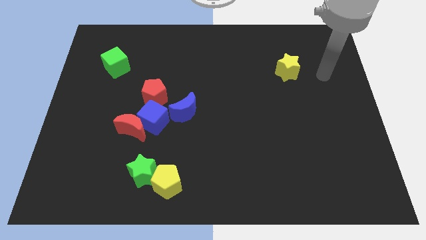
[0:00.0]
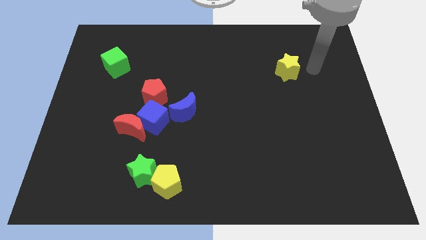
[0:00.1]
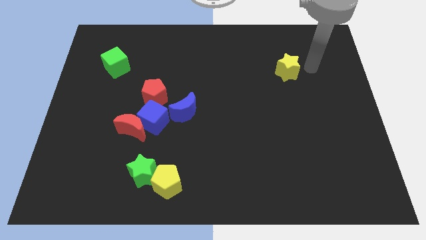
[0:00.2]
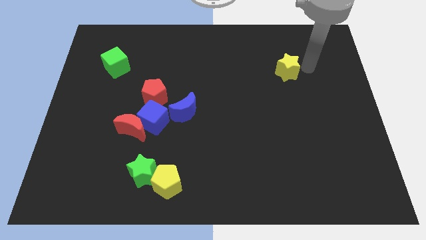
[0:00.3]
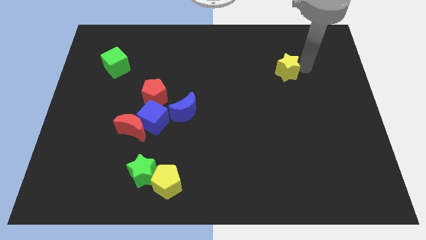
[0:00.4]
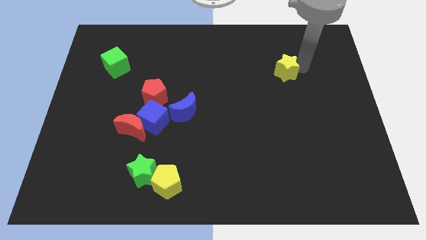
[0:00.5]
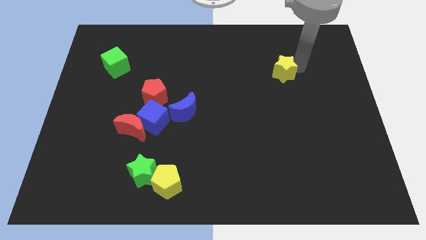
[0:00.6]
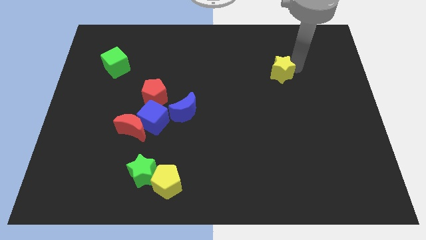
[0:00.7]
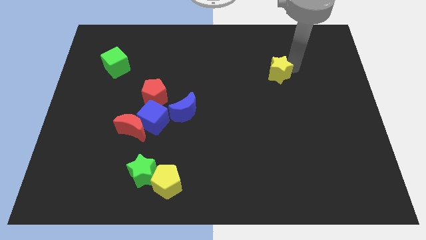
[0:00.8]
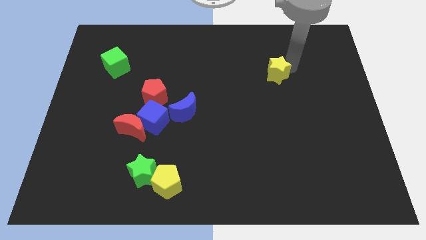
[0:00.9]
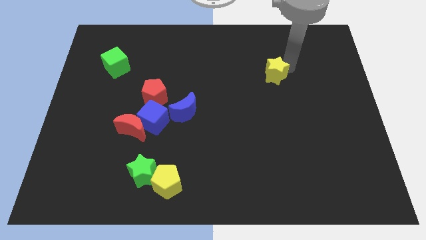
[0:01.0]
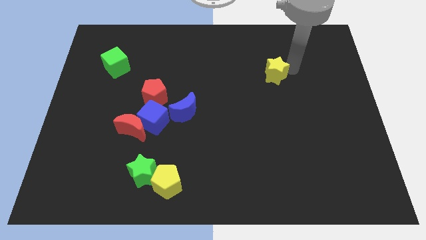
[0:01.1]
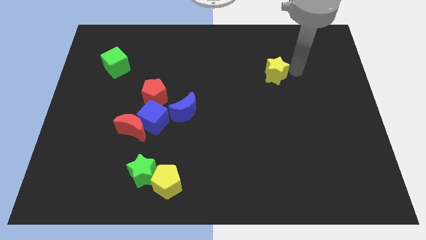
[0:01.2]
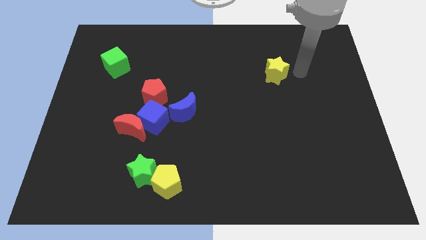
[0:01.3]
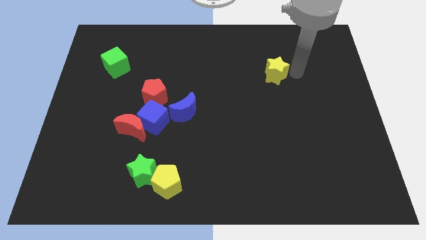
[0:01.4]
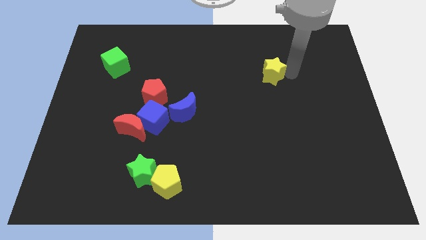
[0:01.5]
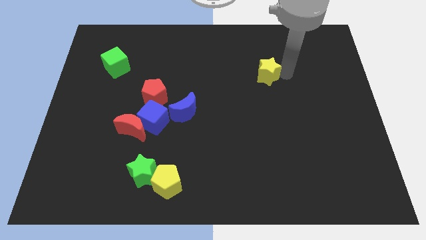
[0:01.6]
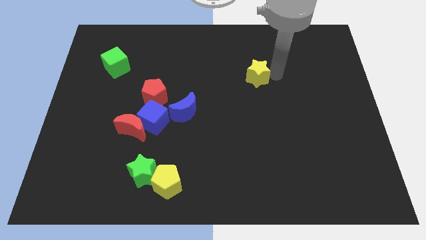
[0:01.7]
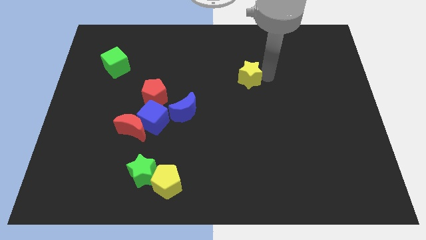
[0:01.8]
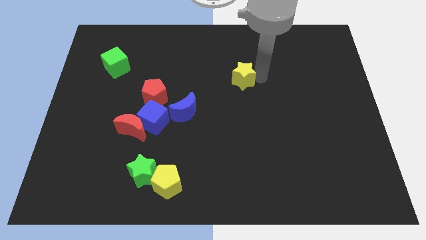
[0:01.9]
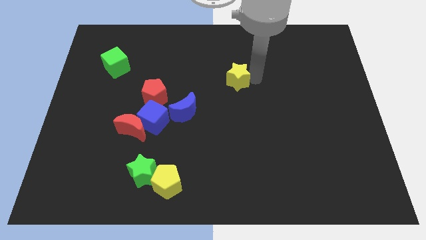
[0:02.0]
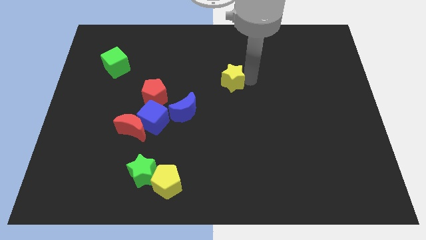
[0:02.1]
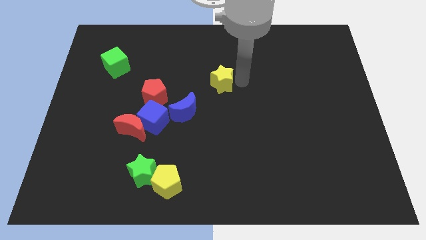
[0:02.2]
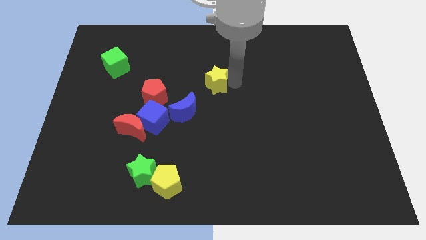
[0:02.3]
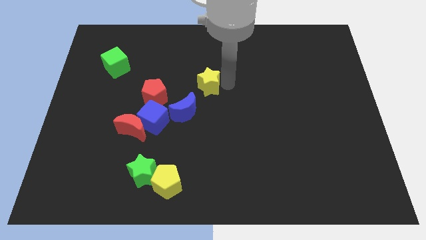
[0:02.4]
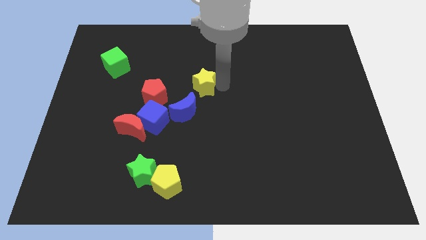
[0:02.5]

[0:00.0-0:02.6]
move the yellow star left

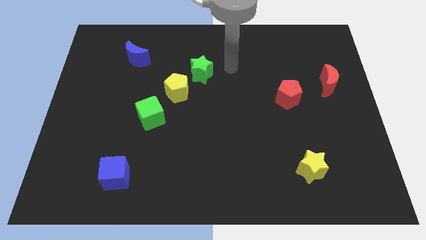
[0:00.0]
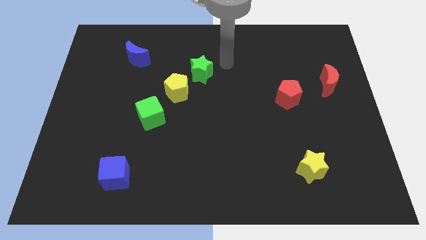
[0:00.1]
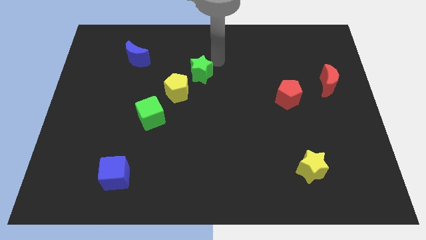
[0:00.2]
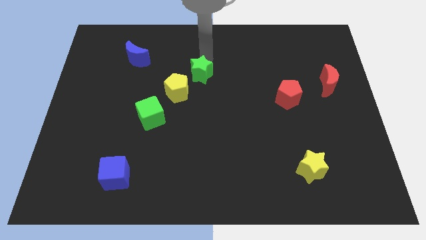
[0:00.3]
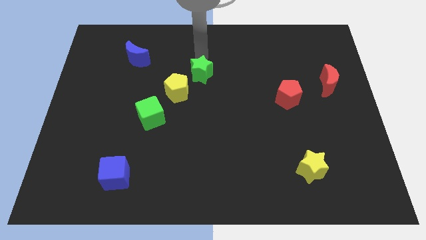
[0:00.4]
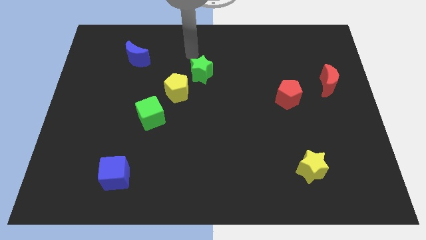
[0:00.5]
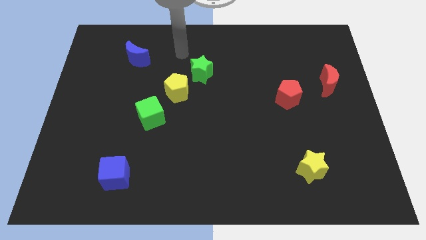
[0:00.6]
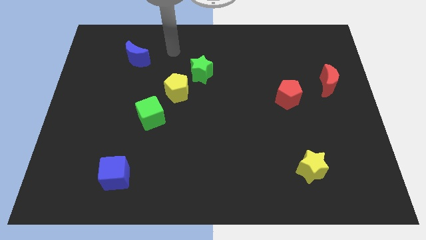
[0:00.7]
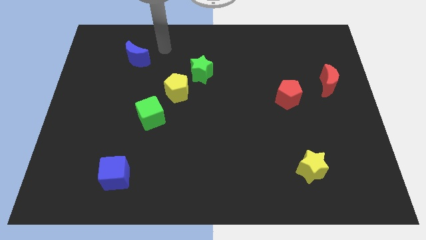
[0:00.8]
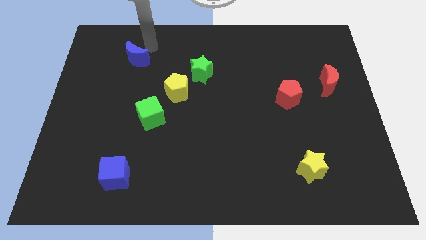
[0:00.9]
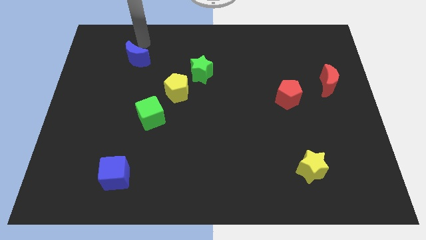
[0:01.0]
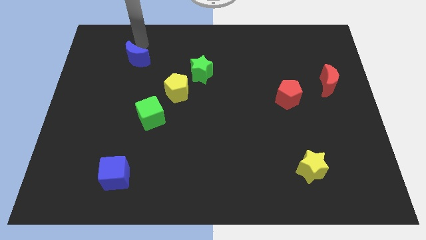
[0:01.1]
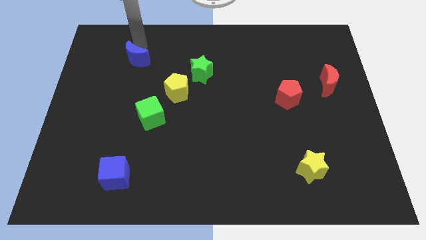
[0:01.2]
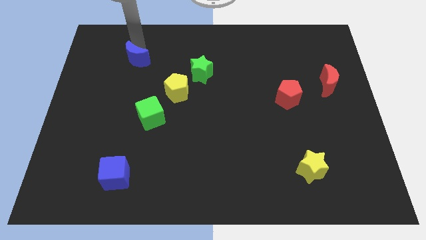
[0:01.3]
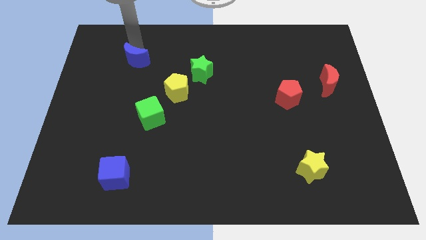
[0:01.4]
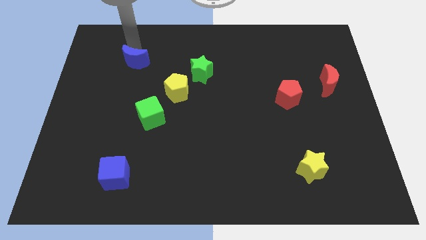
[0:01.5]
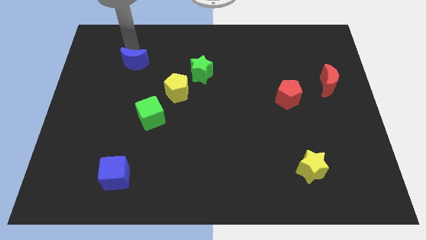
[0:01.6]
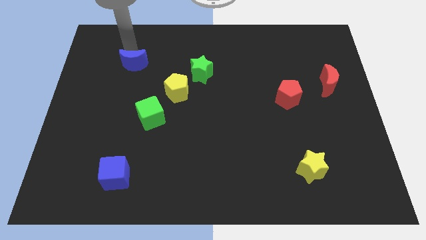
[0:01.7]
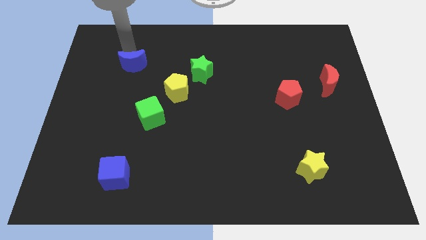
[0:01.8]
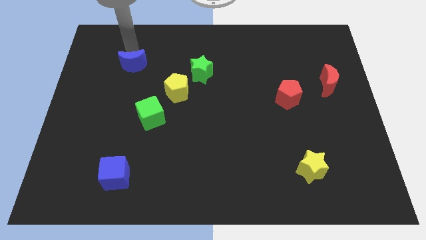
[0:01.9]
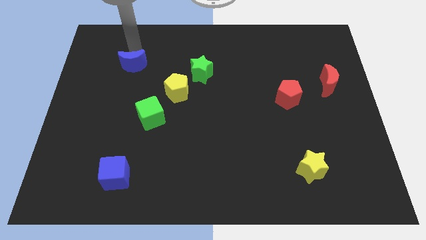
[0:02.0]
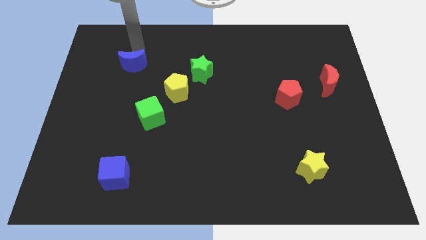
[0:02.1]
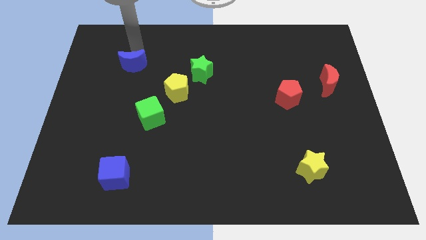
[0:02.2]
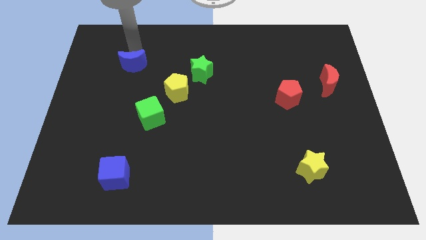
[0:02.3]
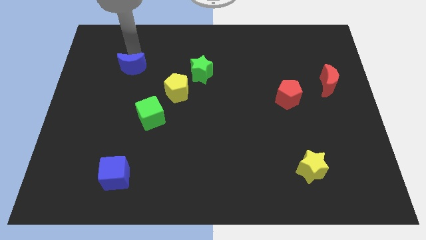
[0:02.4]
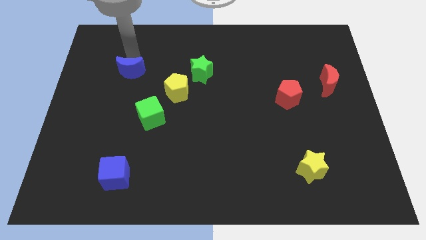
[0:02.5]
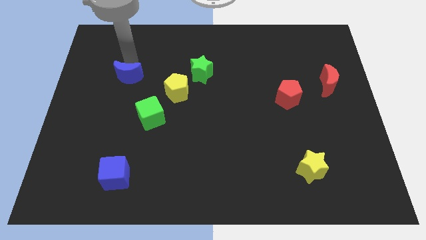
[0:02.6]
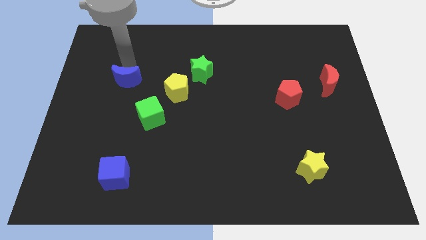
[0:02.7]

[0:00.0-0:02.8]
move the blue moon a little bit down

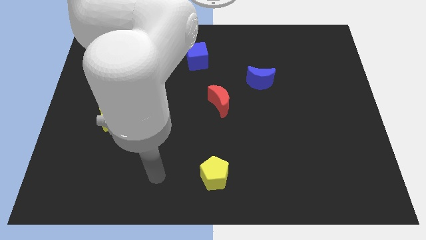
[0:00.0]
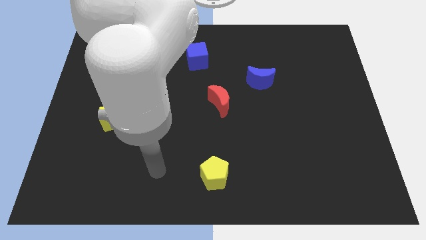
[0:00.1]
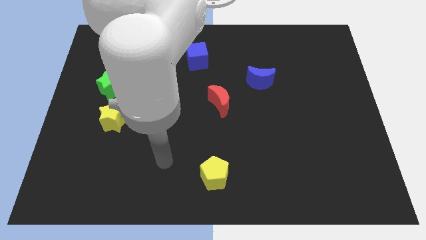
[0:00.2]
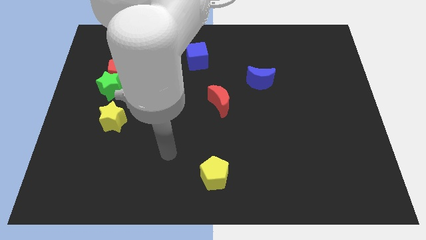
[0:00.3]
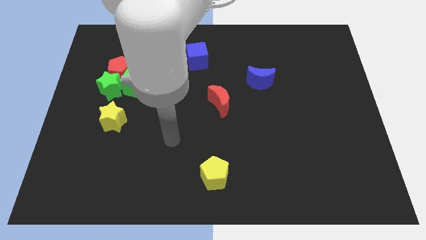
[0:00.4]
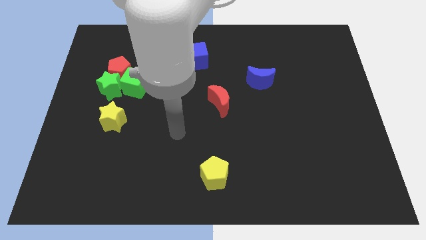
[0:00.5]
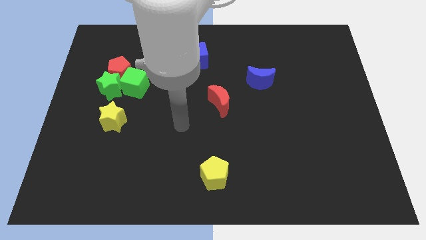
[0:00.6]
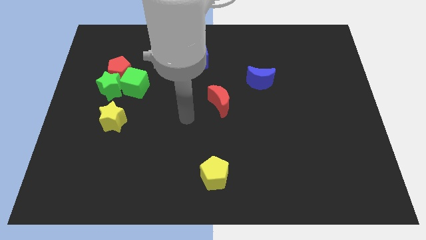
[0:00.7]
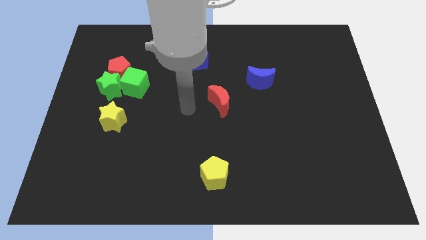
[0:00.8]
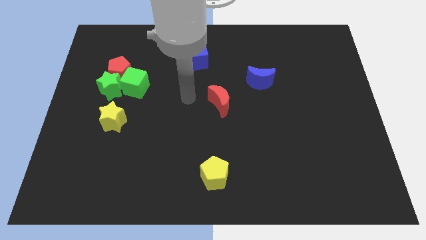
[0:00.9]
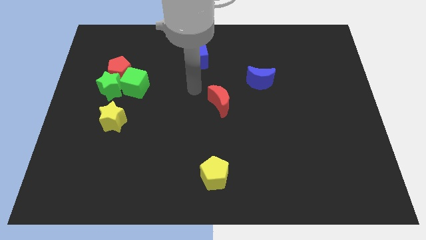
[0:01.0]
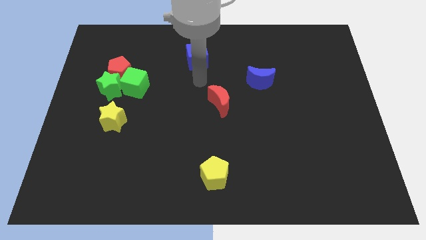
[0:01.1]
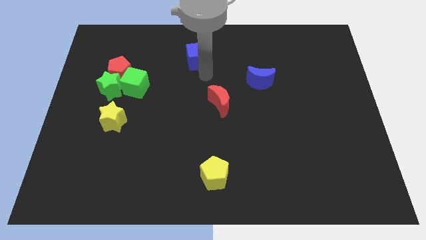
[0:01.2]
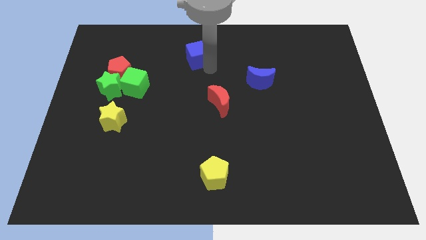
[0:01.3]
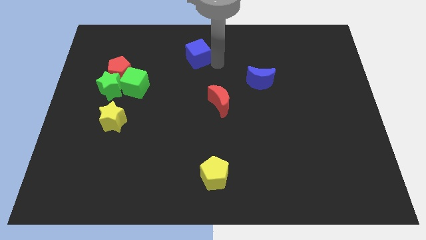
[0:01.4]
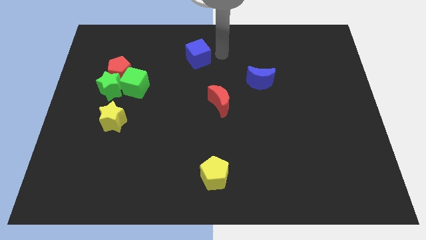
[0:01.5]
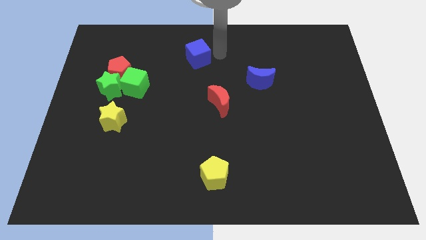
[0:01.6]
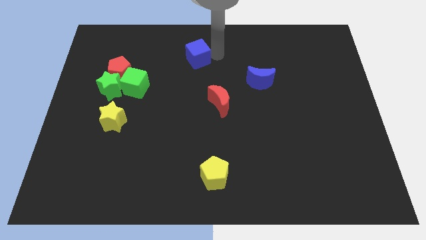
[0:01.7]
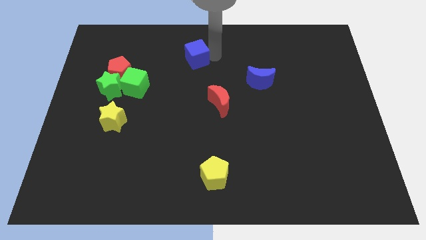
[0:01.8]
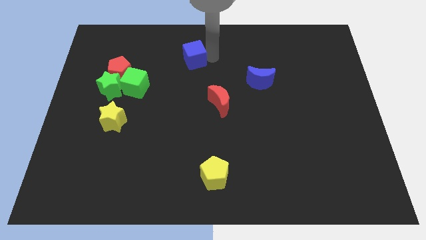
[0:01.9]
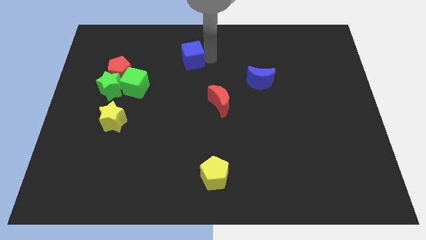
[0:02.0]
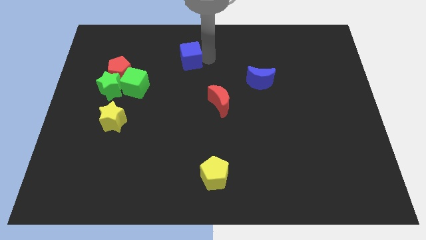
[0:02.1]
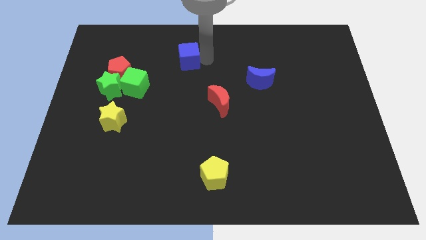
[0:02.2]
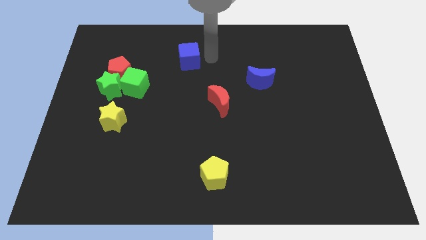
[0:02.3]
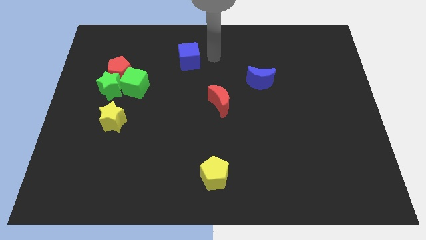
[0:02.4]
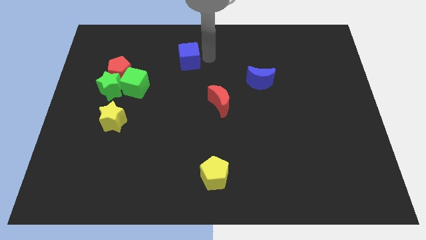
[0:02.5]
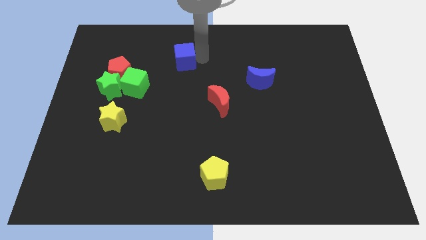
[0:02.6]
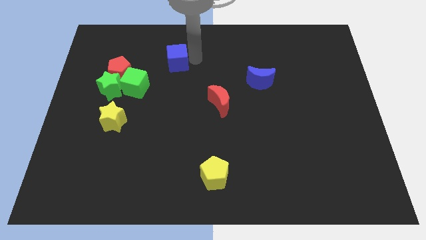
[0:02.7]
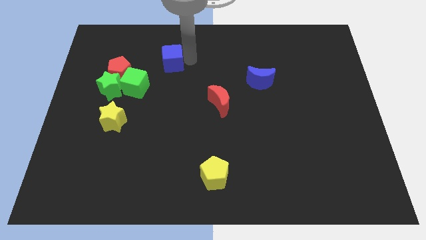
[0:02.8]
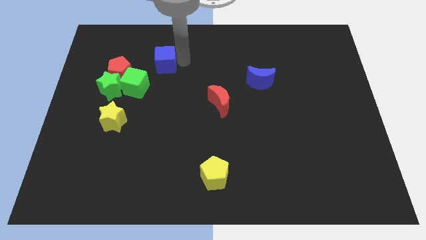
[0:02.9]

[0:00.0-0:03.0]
slightly slide the blue cube left
